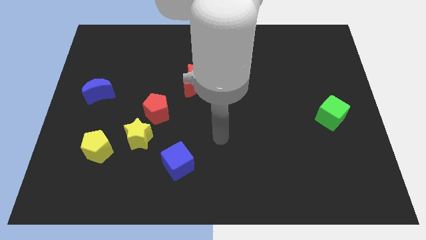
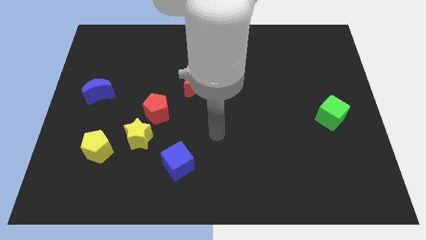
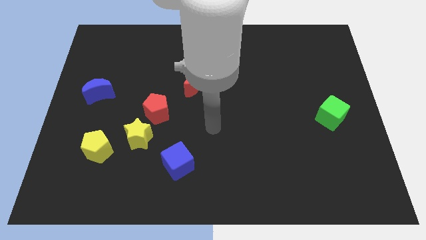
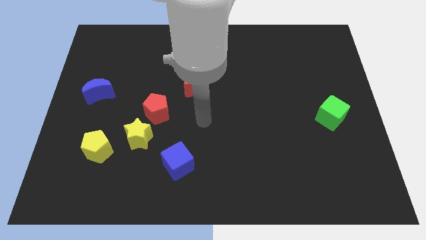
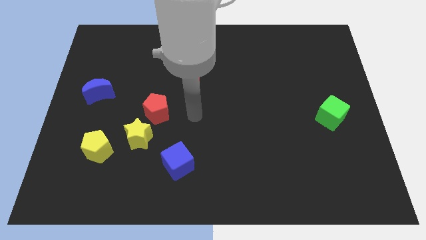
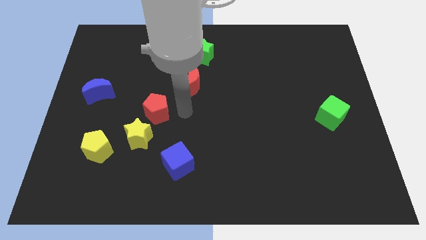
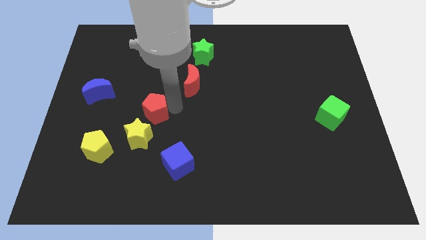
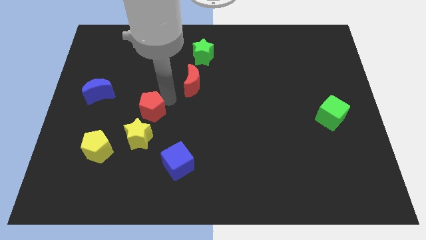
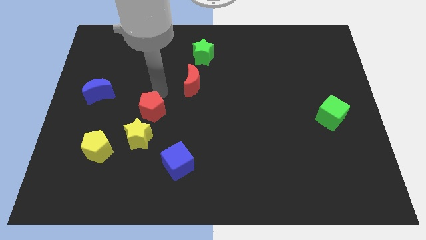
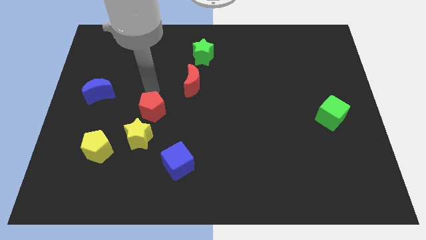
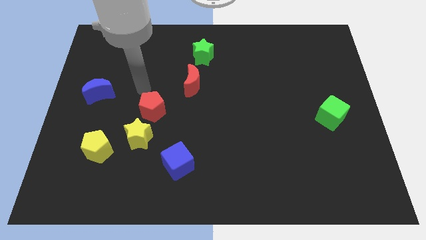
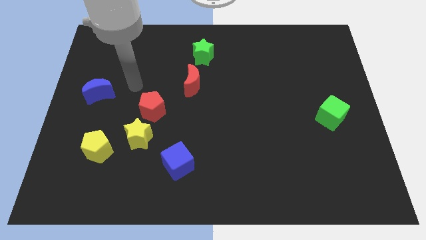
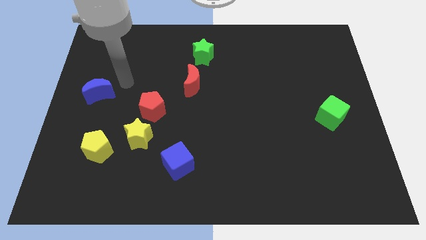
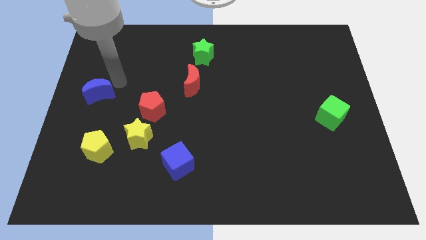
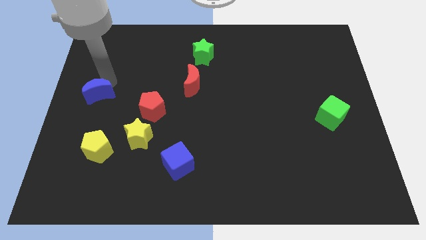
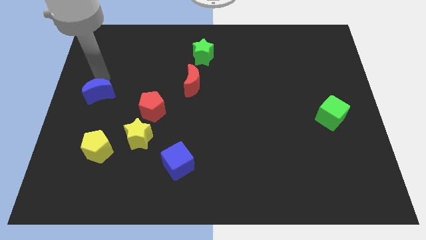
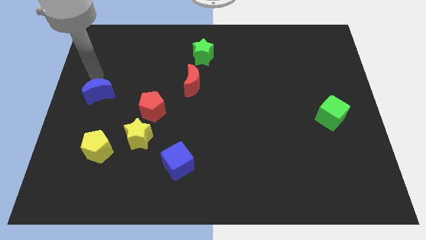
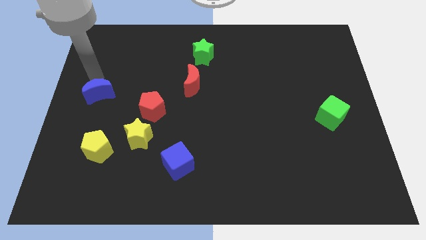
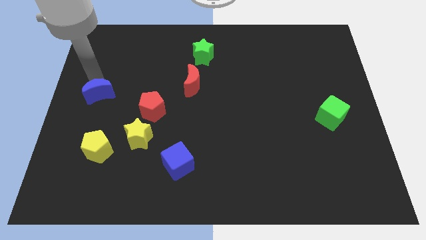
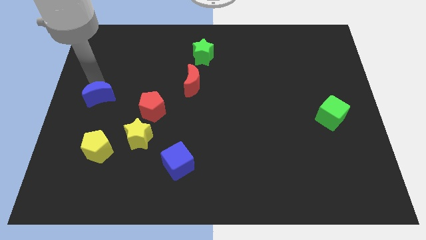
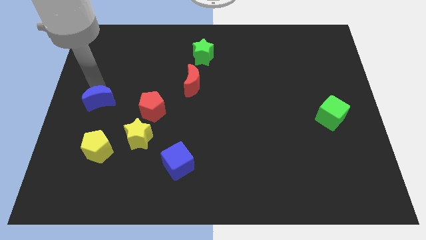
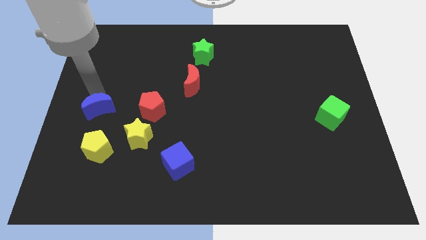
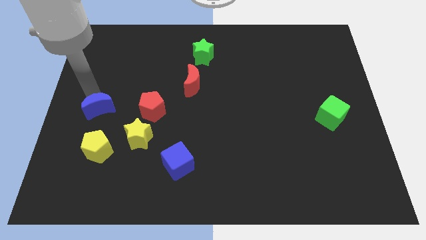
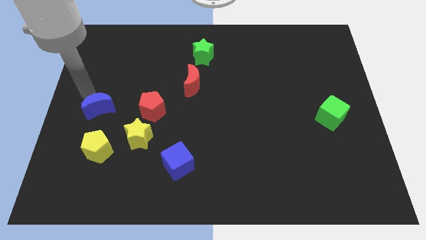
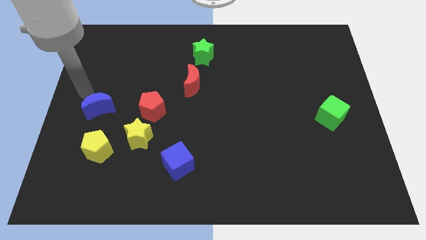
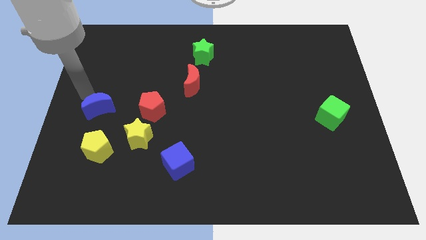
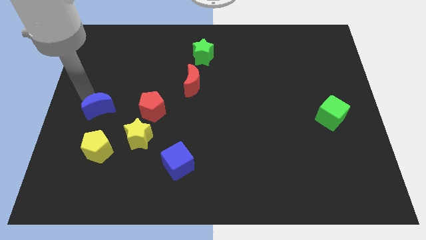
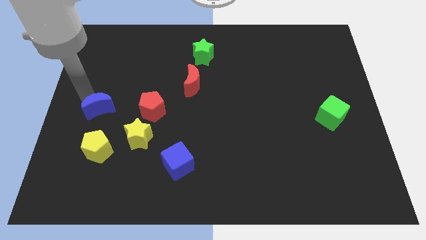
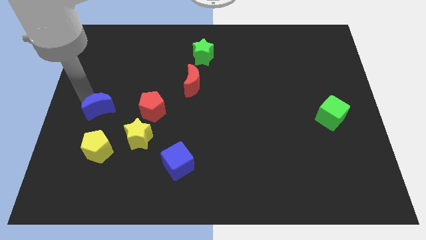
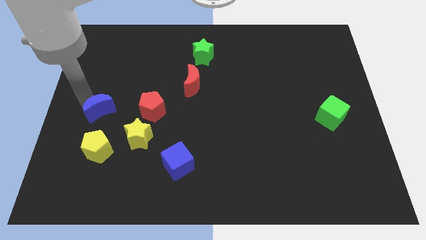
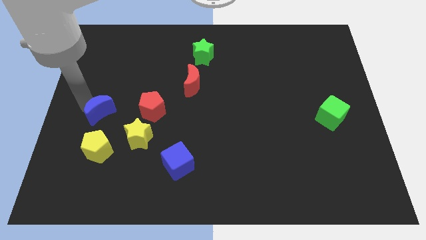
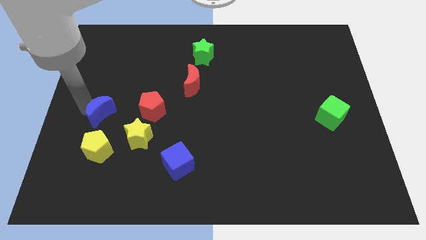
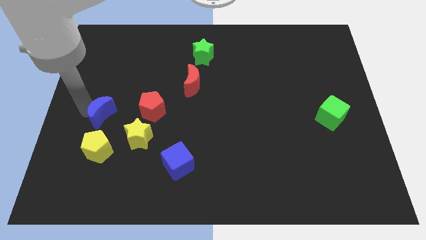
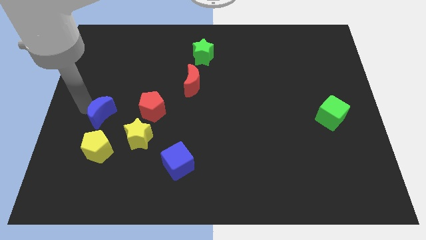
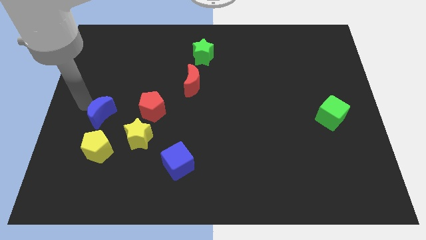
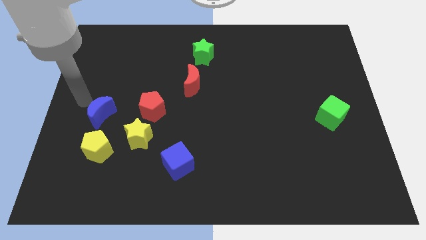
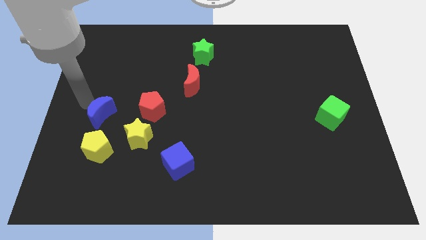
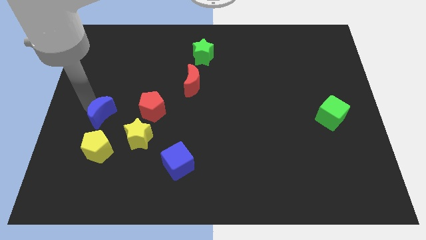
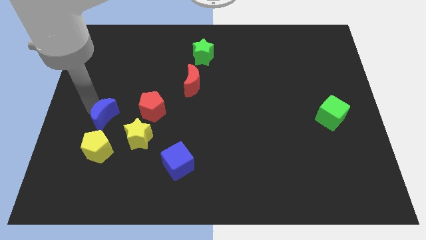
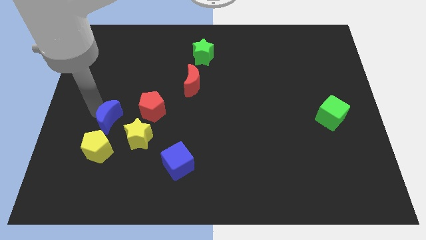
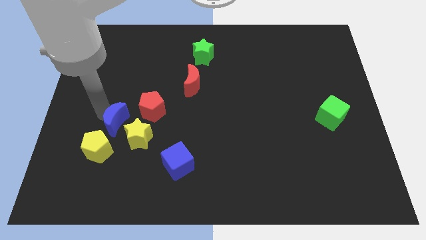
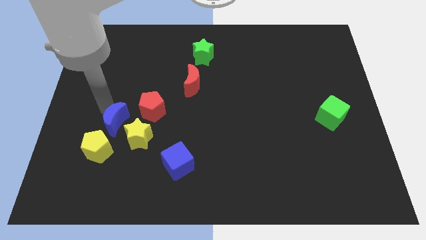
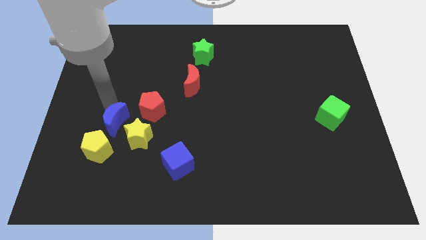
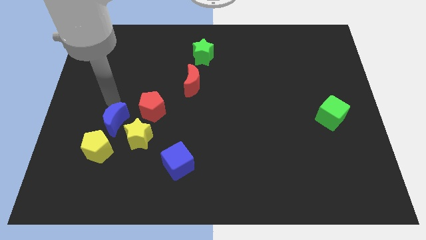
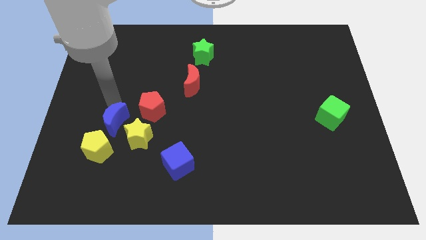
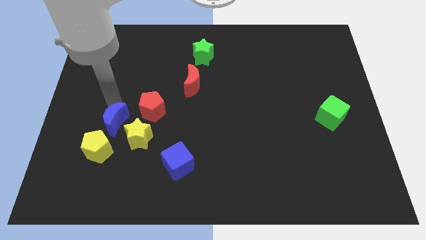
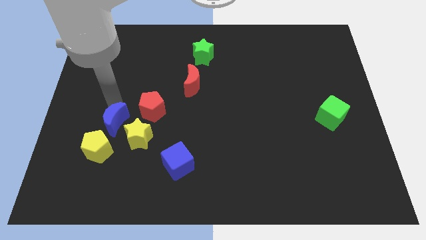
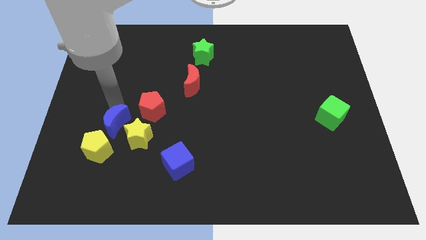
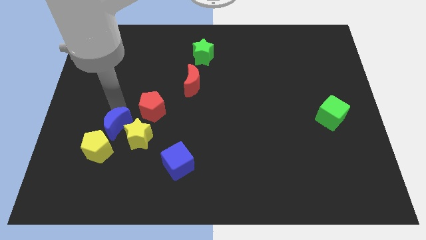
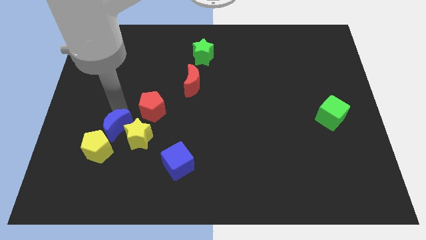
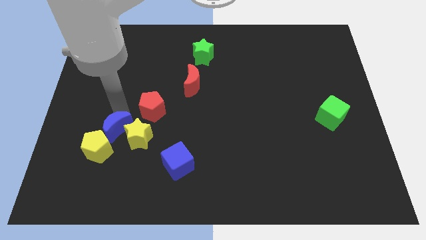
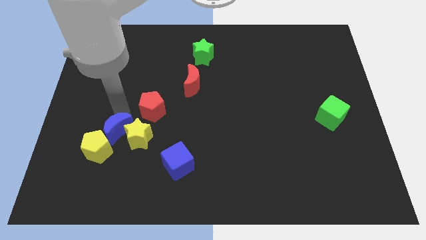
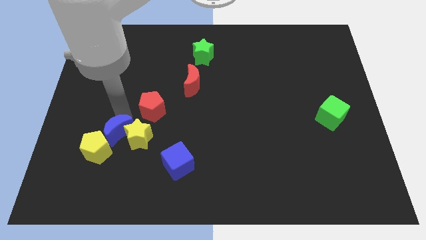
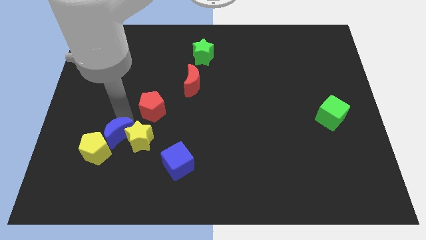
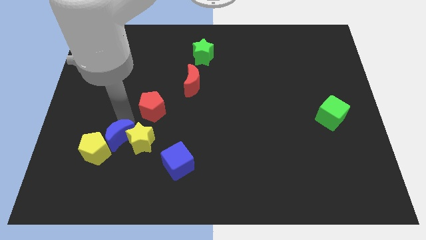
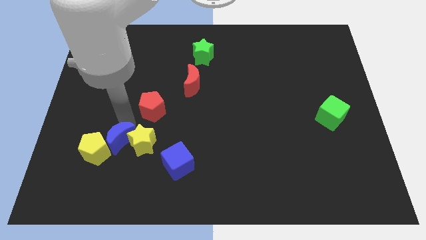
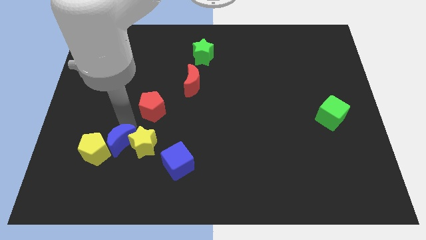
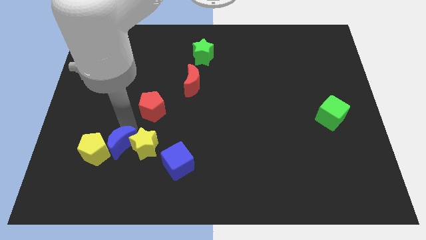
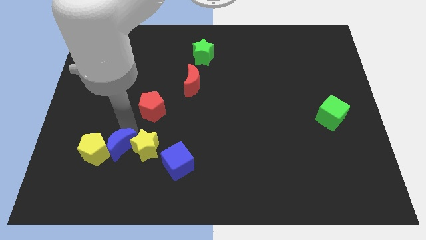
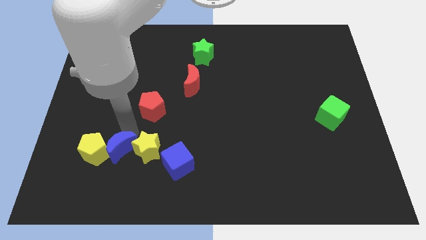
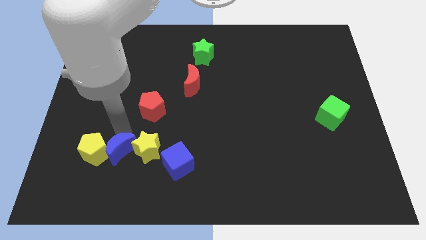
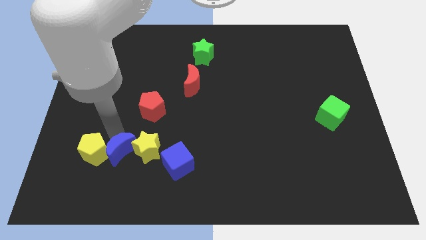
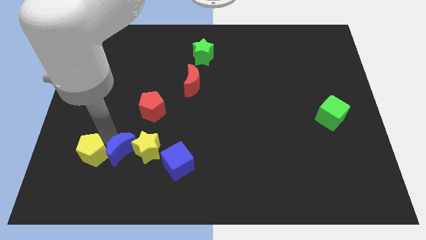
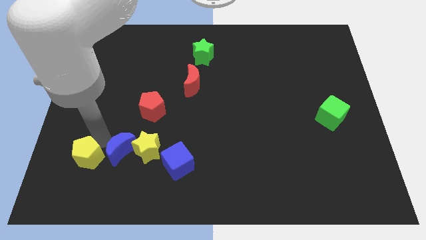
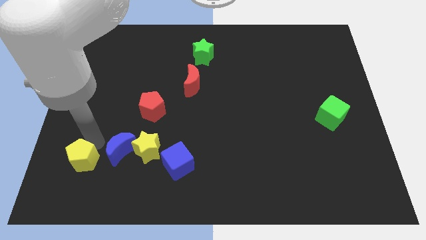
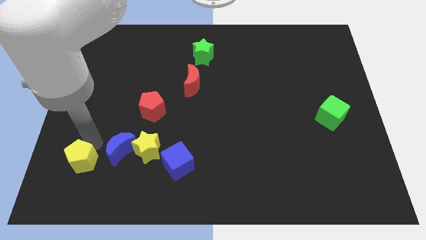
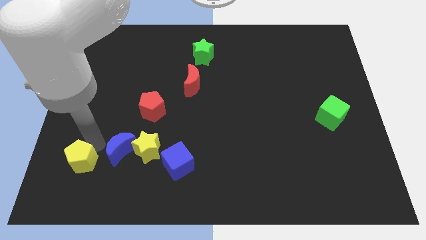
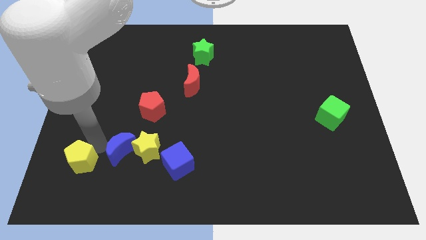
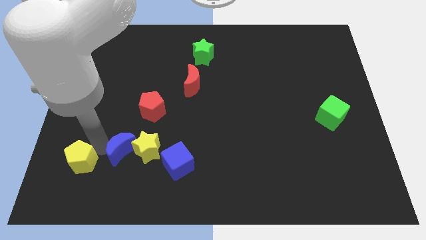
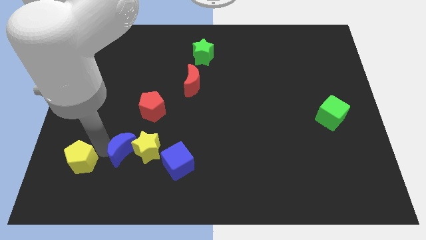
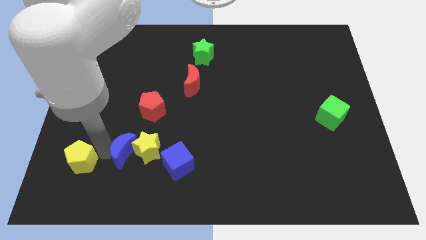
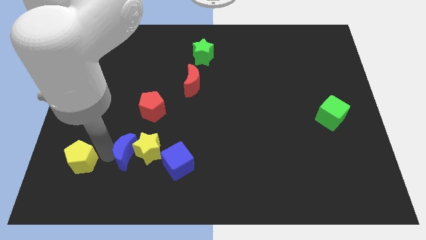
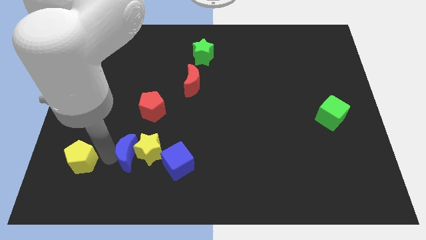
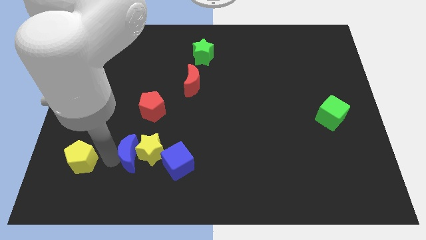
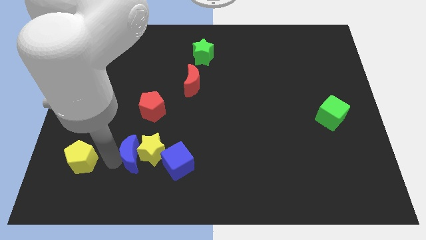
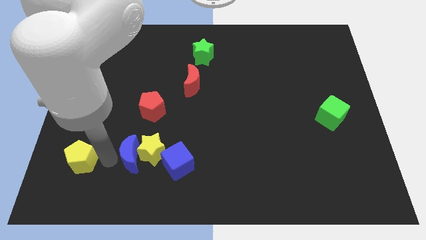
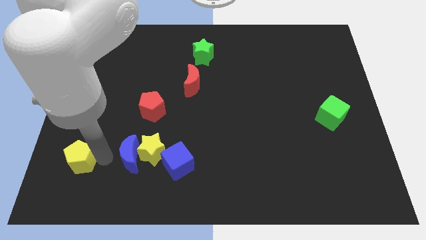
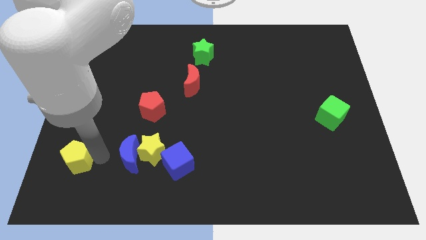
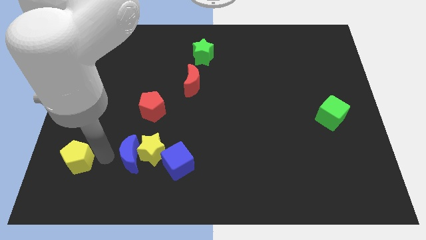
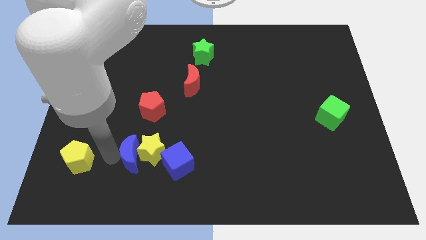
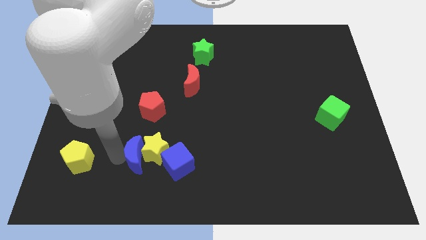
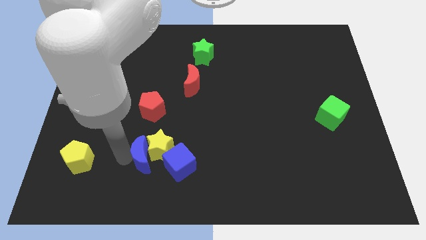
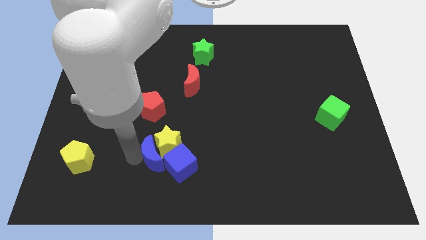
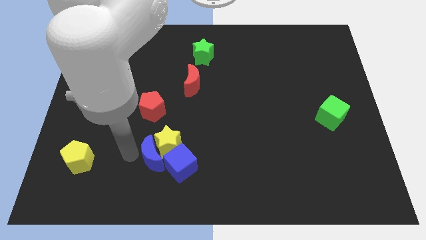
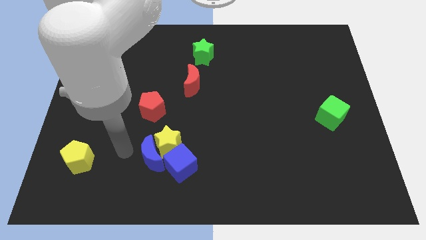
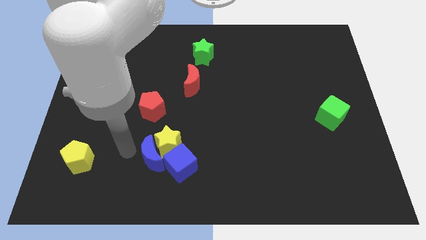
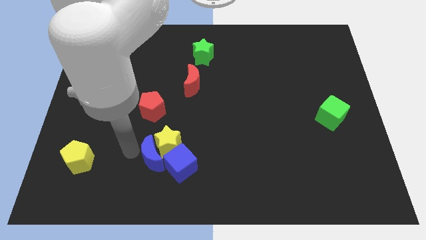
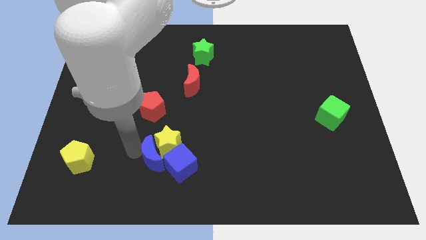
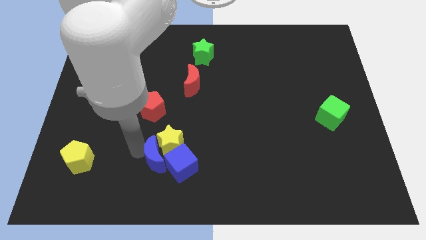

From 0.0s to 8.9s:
slide the blue moon to the blue cube
